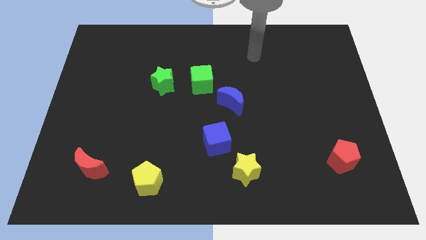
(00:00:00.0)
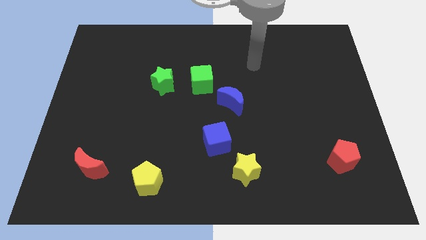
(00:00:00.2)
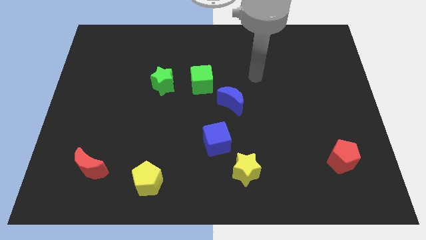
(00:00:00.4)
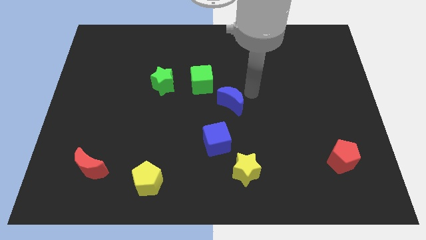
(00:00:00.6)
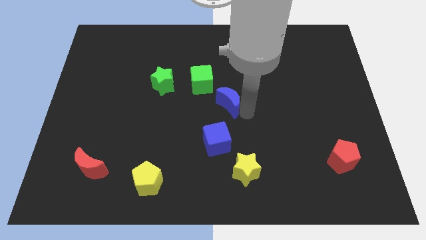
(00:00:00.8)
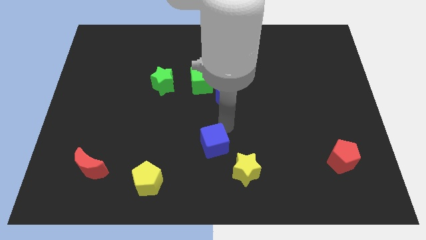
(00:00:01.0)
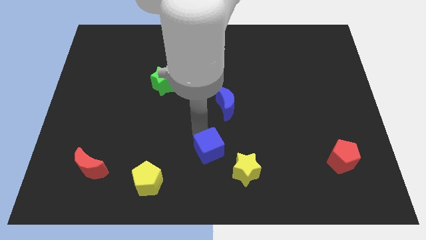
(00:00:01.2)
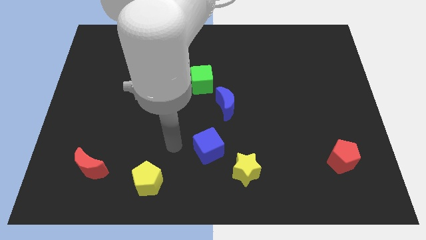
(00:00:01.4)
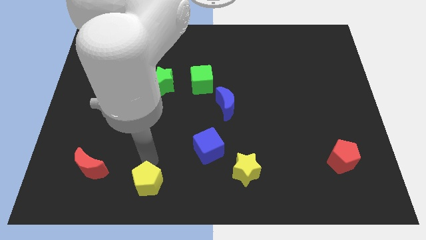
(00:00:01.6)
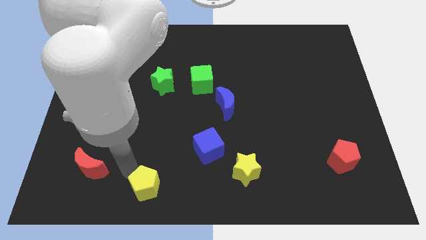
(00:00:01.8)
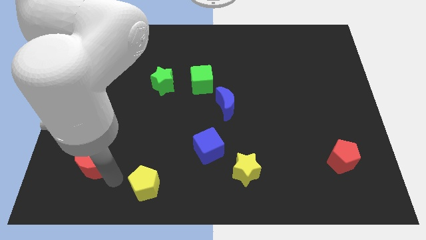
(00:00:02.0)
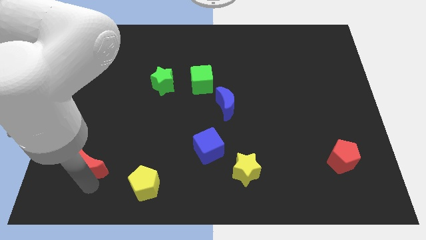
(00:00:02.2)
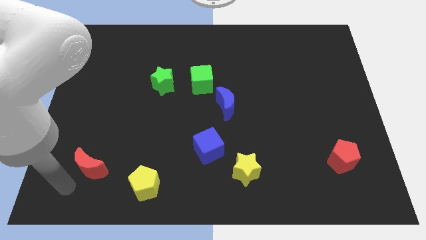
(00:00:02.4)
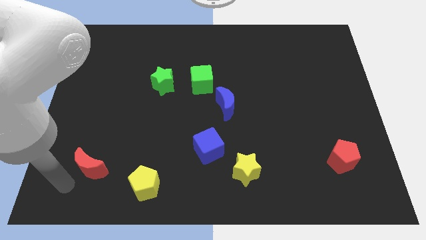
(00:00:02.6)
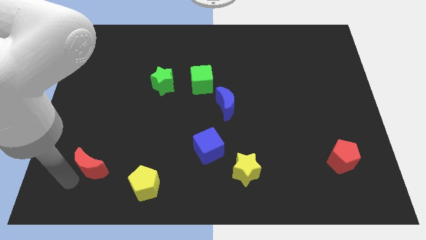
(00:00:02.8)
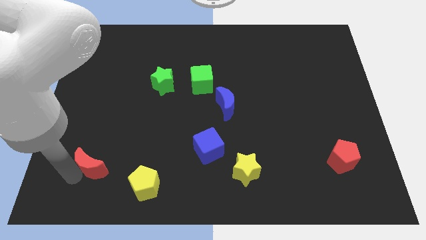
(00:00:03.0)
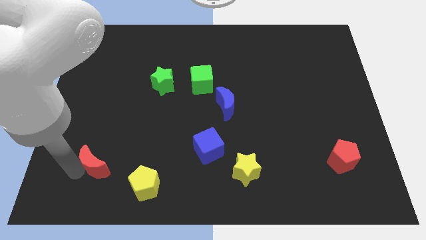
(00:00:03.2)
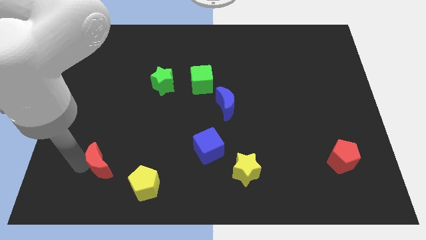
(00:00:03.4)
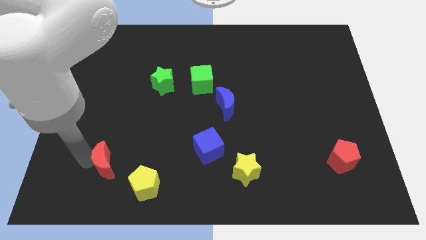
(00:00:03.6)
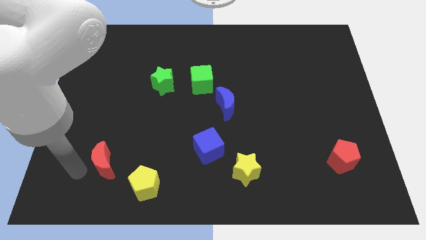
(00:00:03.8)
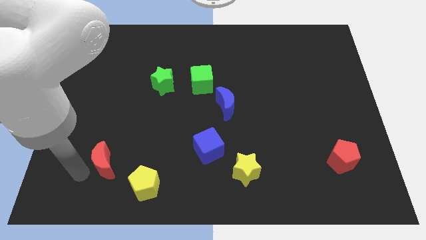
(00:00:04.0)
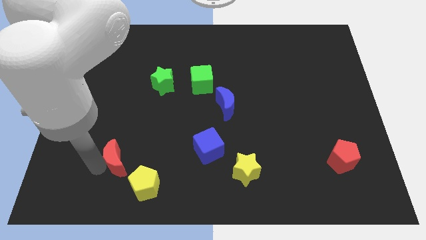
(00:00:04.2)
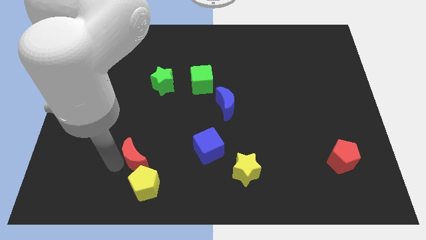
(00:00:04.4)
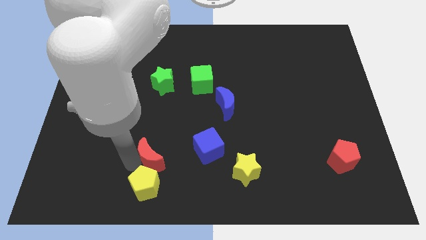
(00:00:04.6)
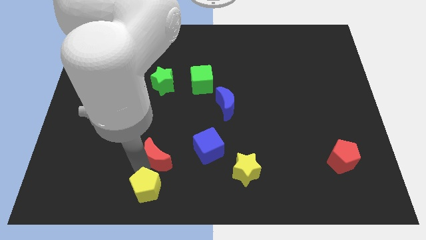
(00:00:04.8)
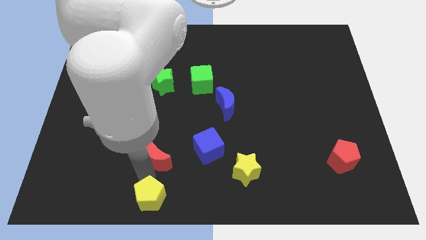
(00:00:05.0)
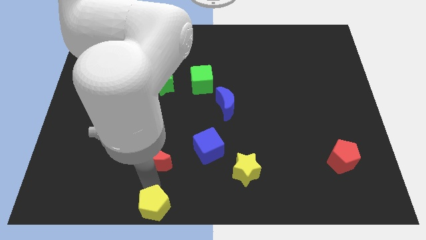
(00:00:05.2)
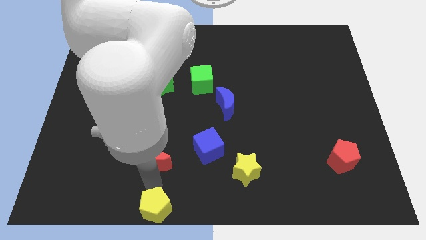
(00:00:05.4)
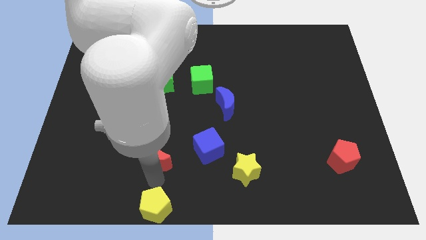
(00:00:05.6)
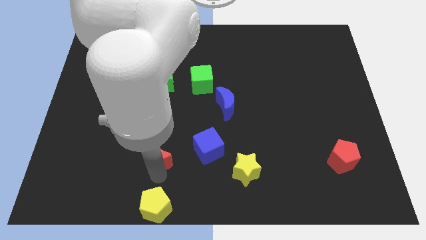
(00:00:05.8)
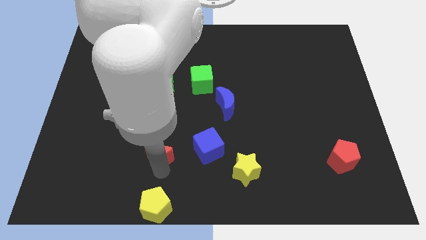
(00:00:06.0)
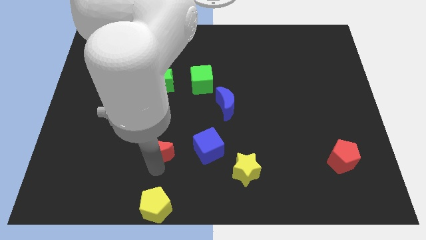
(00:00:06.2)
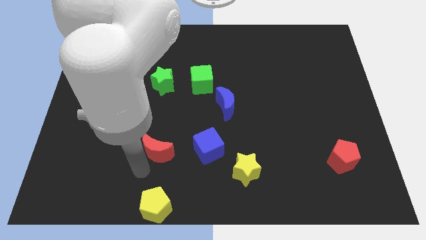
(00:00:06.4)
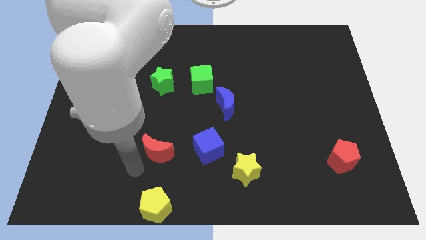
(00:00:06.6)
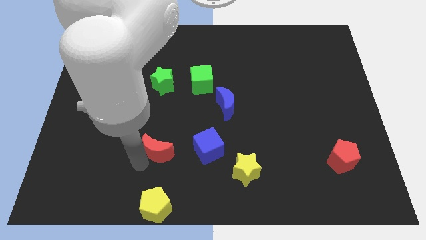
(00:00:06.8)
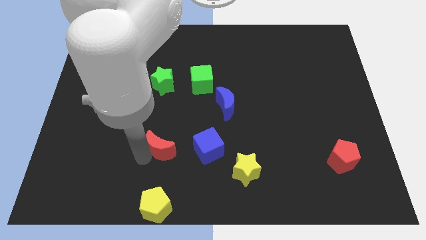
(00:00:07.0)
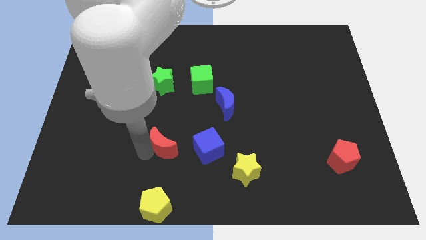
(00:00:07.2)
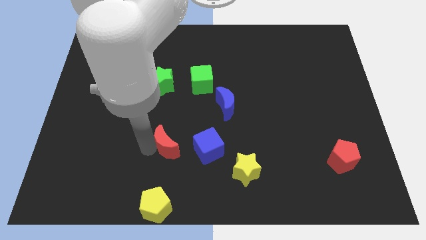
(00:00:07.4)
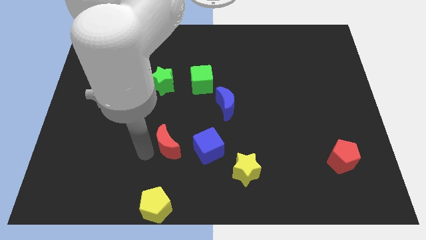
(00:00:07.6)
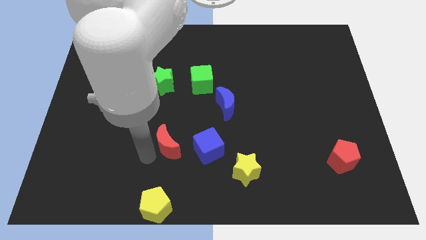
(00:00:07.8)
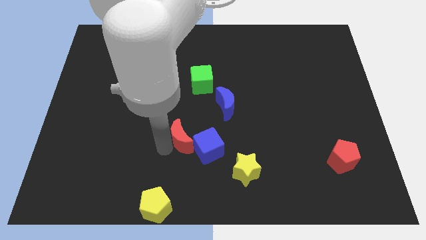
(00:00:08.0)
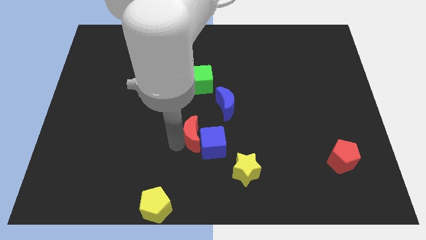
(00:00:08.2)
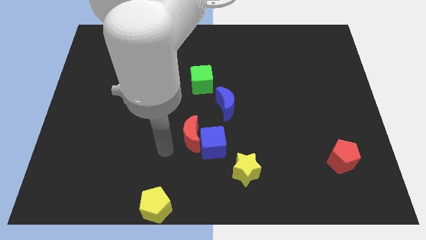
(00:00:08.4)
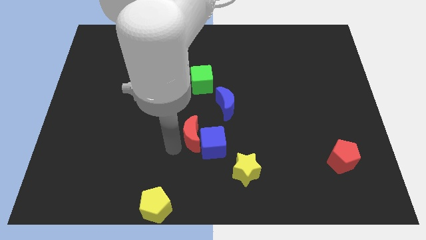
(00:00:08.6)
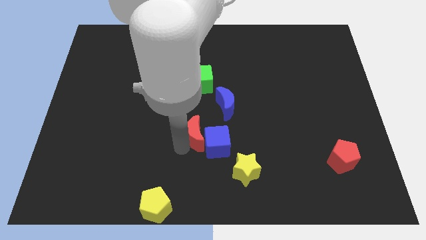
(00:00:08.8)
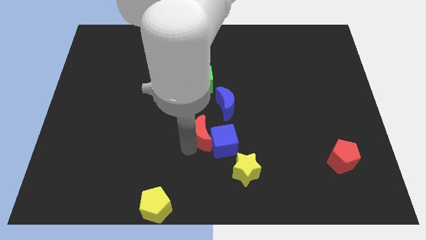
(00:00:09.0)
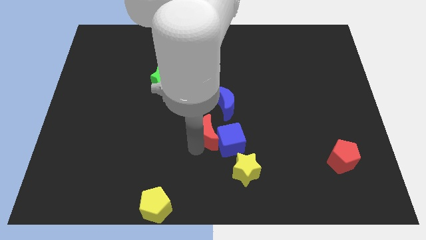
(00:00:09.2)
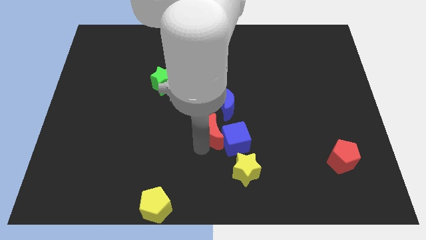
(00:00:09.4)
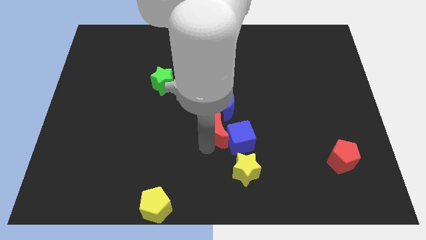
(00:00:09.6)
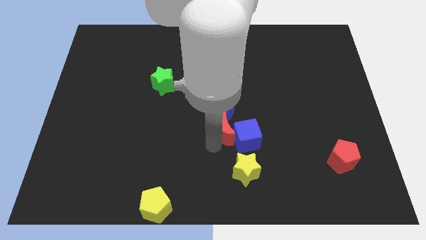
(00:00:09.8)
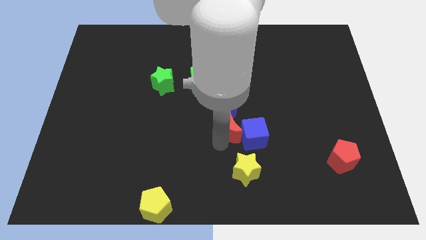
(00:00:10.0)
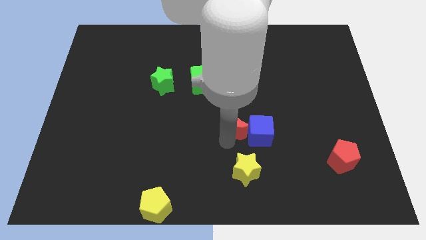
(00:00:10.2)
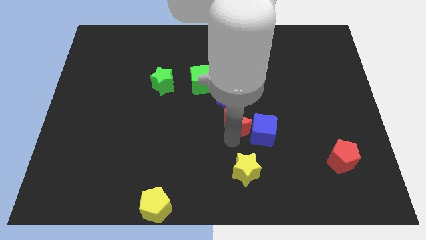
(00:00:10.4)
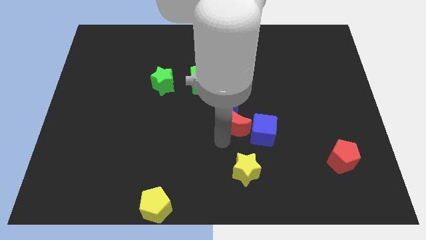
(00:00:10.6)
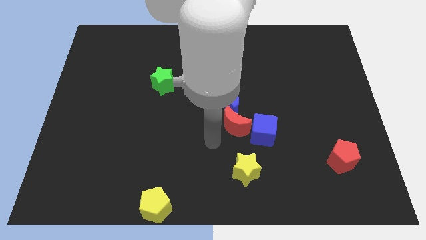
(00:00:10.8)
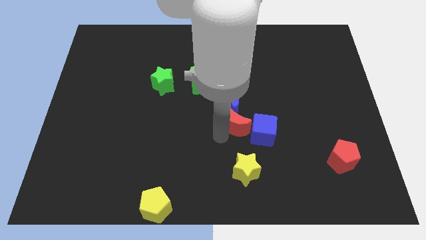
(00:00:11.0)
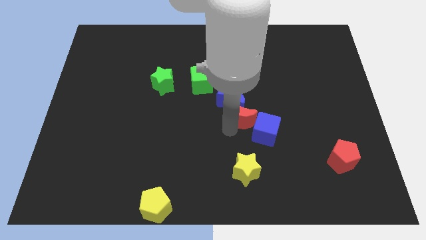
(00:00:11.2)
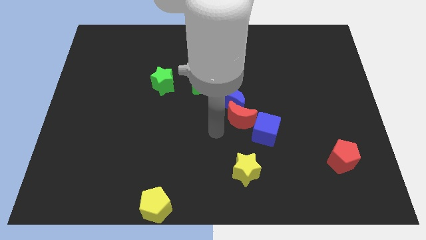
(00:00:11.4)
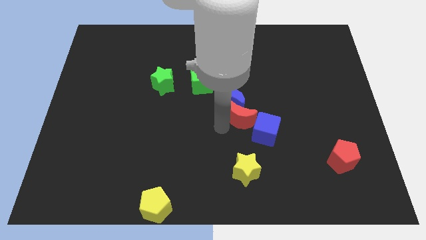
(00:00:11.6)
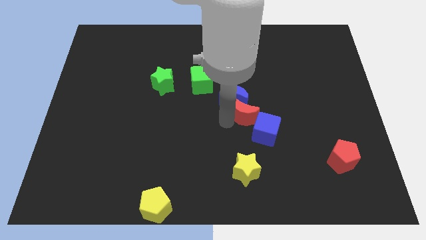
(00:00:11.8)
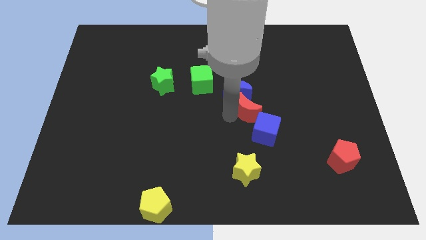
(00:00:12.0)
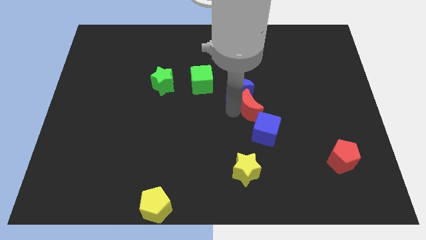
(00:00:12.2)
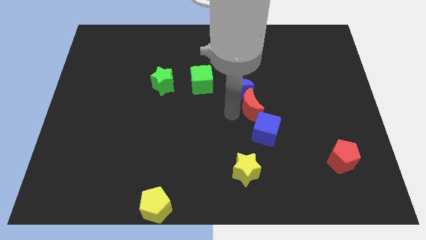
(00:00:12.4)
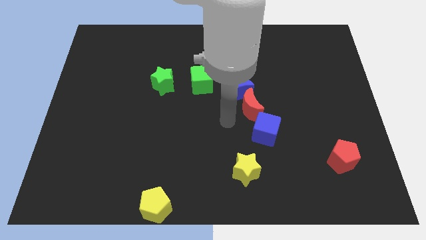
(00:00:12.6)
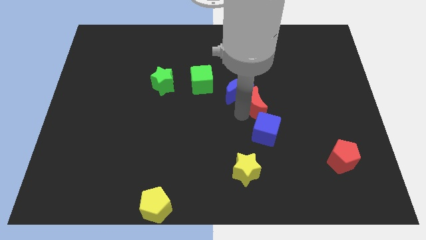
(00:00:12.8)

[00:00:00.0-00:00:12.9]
move the red moon right of the blue moon
